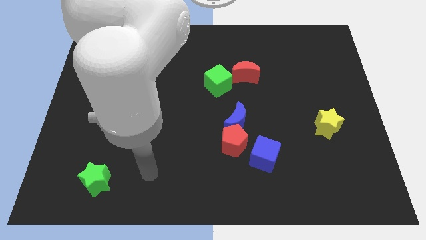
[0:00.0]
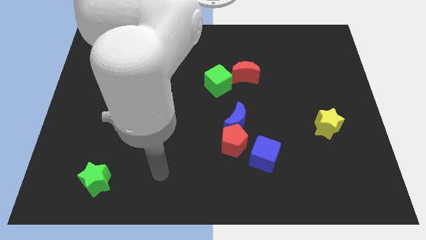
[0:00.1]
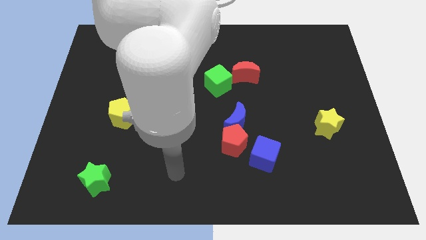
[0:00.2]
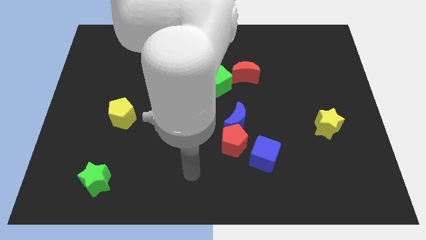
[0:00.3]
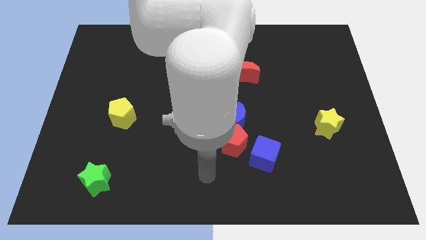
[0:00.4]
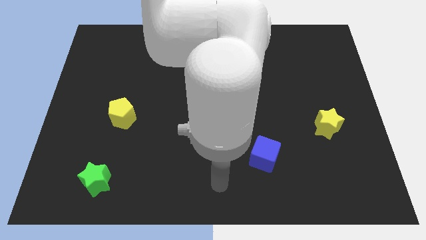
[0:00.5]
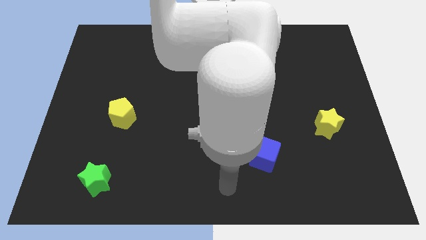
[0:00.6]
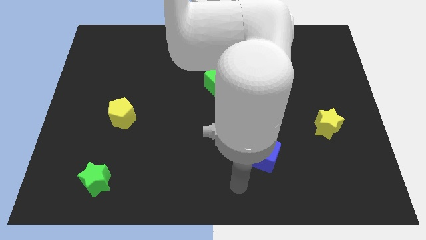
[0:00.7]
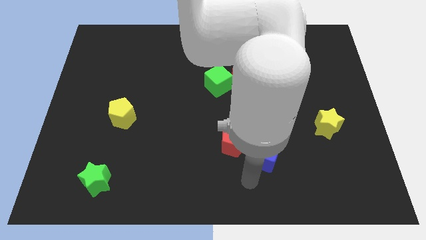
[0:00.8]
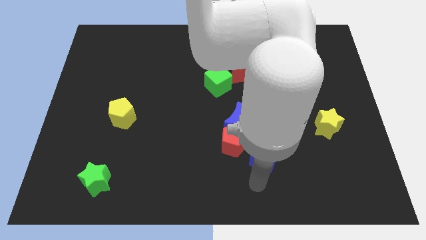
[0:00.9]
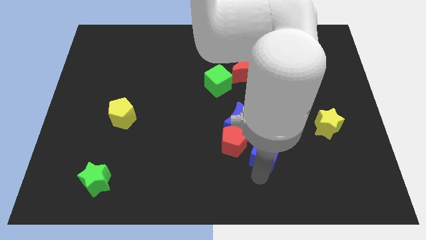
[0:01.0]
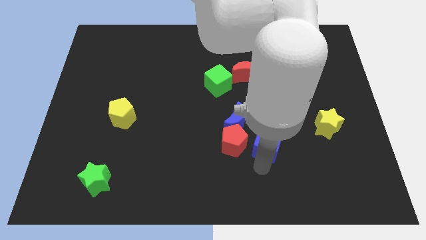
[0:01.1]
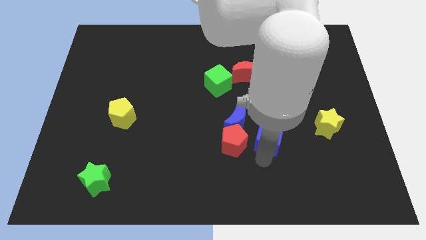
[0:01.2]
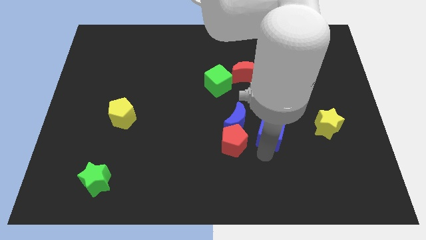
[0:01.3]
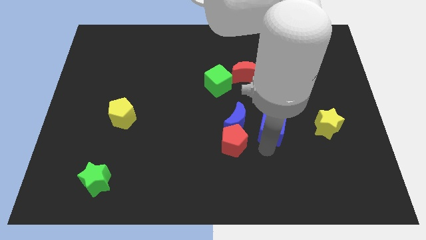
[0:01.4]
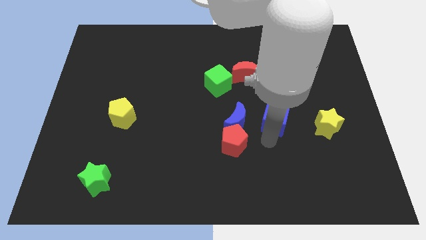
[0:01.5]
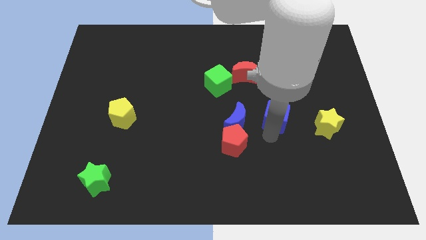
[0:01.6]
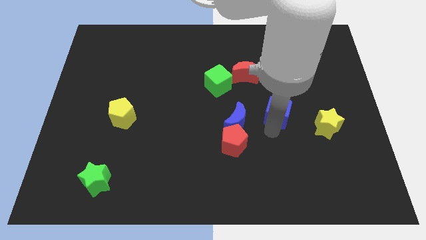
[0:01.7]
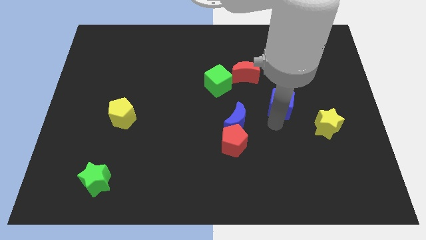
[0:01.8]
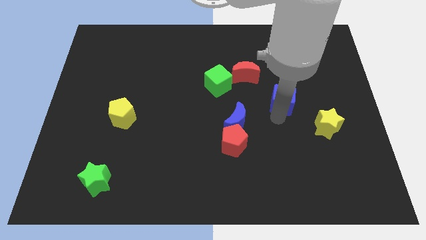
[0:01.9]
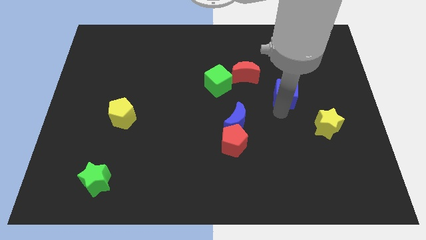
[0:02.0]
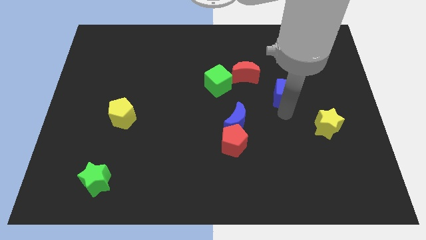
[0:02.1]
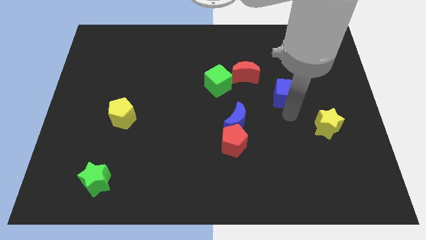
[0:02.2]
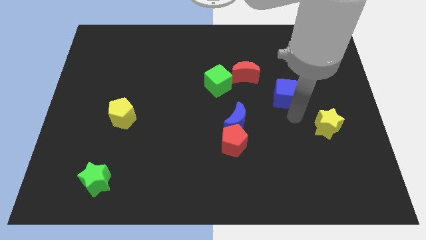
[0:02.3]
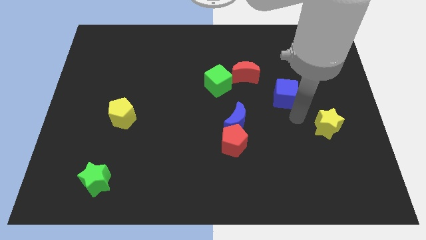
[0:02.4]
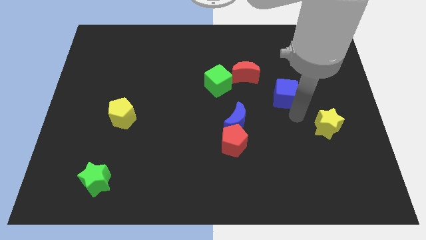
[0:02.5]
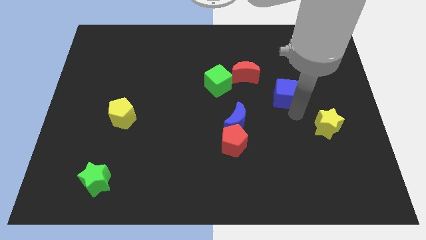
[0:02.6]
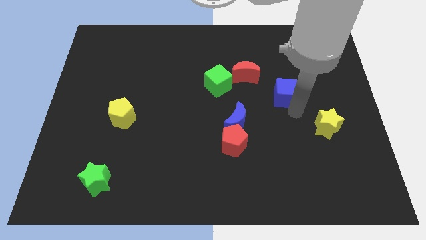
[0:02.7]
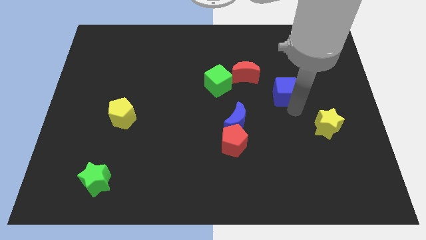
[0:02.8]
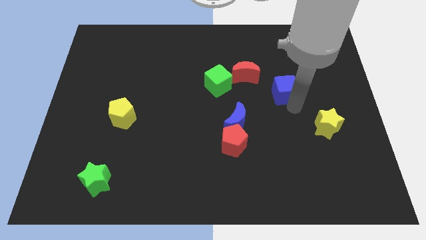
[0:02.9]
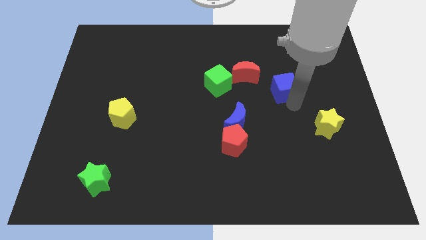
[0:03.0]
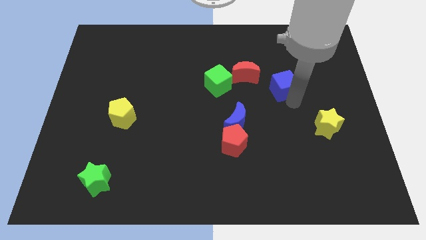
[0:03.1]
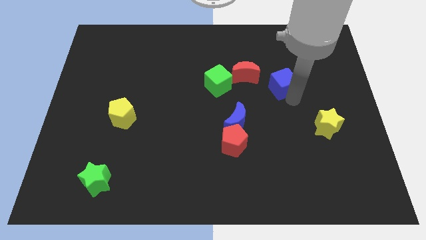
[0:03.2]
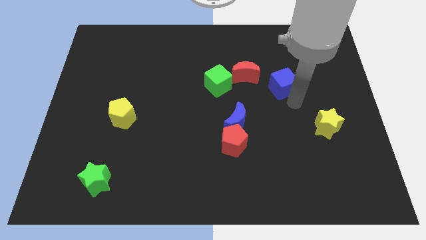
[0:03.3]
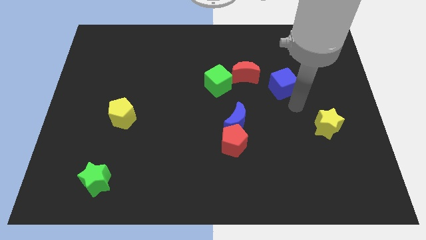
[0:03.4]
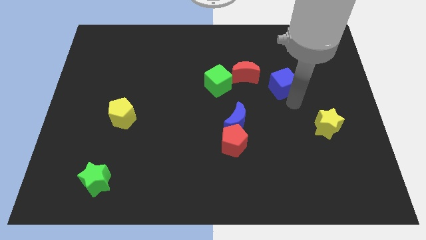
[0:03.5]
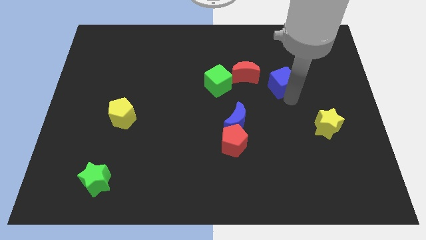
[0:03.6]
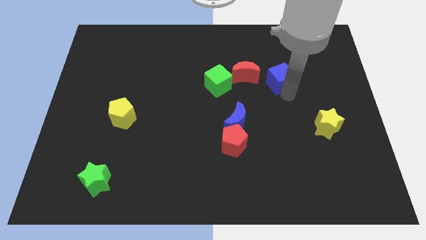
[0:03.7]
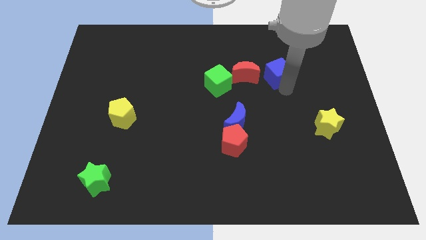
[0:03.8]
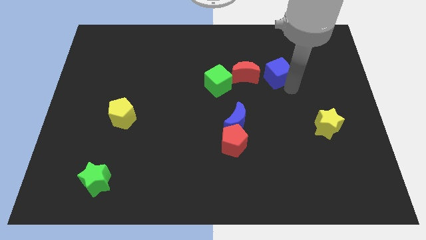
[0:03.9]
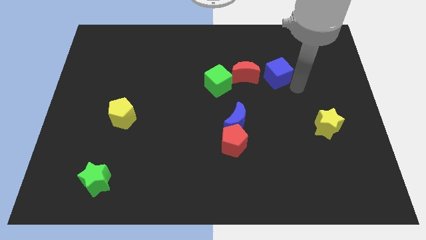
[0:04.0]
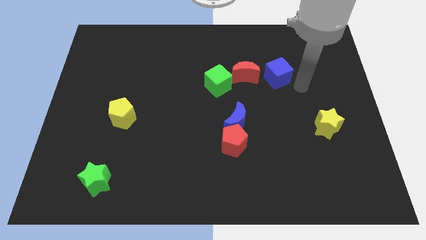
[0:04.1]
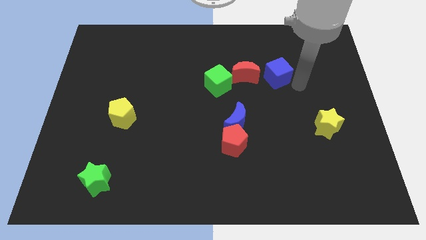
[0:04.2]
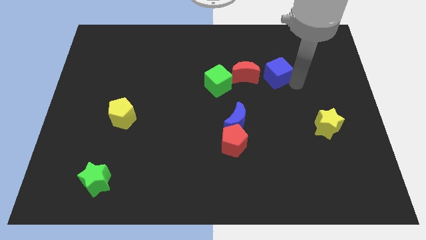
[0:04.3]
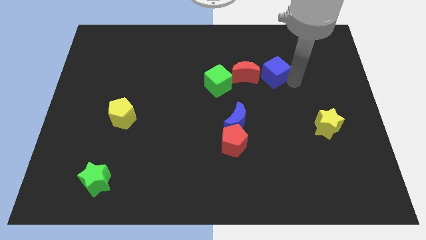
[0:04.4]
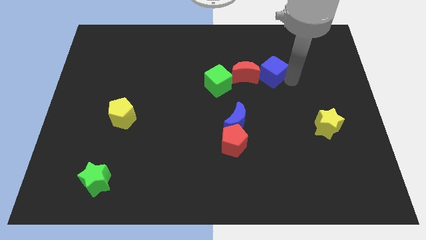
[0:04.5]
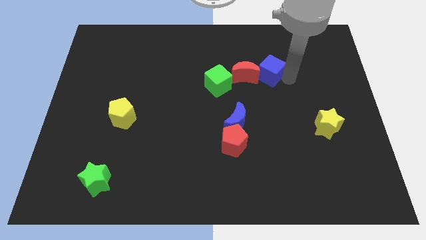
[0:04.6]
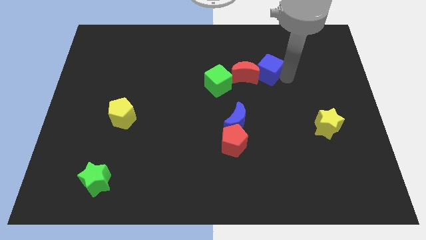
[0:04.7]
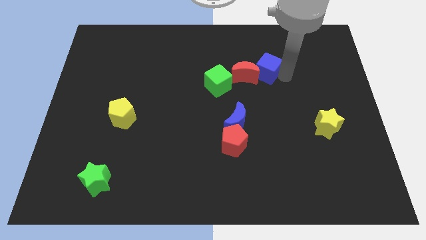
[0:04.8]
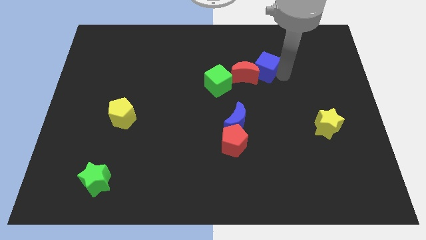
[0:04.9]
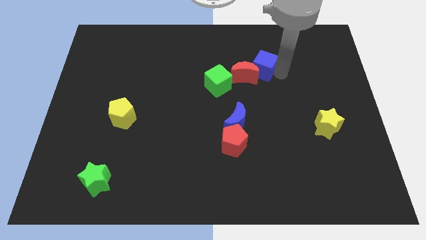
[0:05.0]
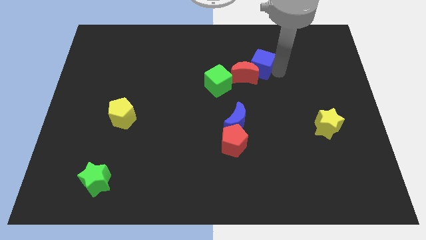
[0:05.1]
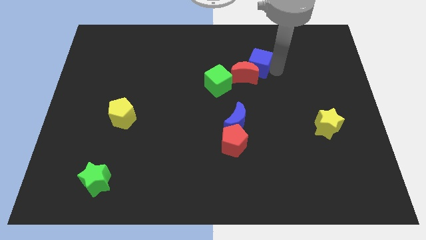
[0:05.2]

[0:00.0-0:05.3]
put the blue cube diagonally up and to the right of the green cube

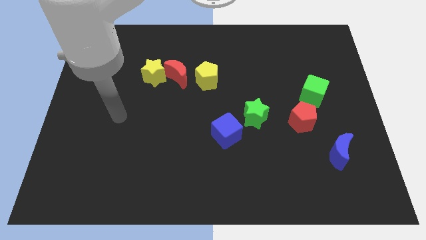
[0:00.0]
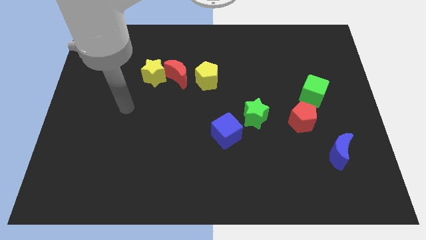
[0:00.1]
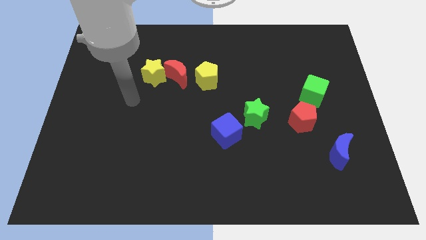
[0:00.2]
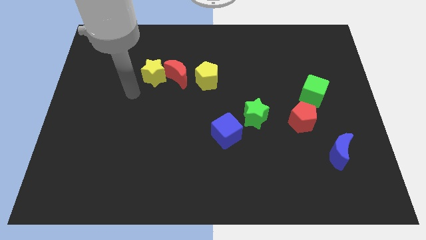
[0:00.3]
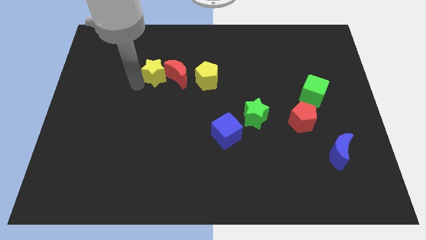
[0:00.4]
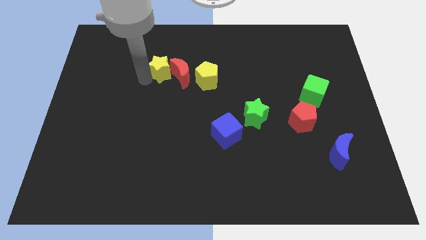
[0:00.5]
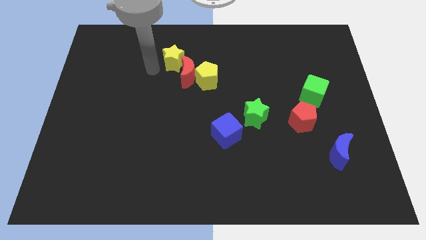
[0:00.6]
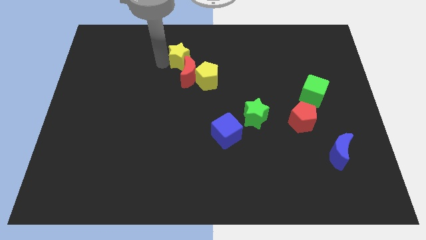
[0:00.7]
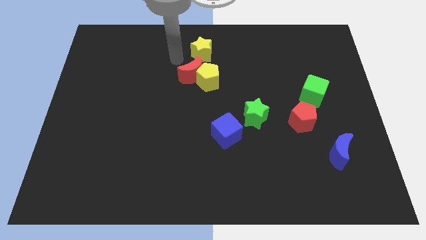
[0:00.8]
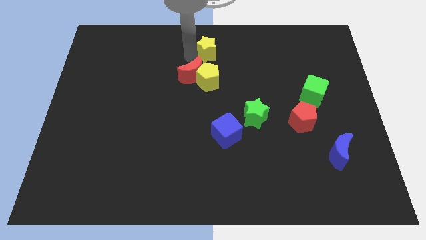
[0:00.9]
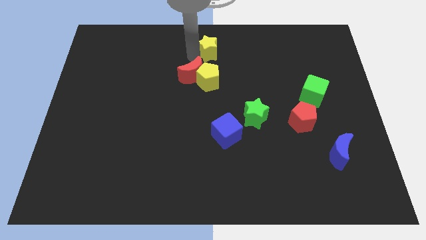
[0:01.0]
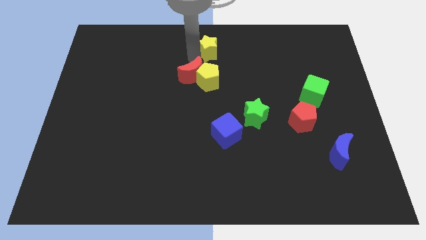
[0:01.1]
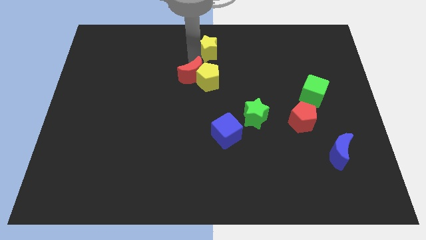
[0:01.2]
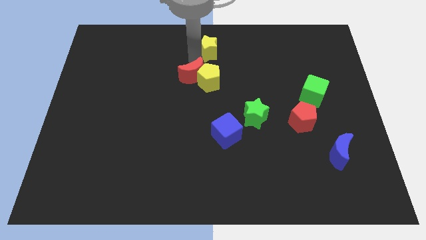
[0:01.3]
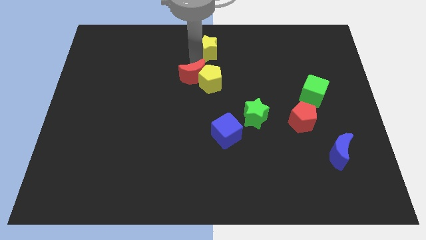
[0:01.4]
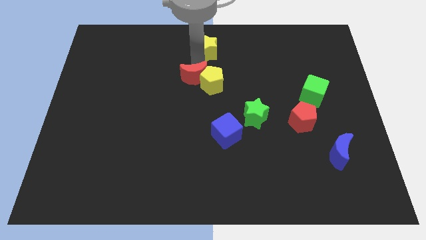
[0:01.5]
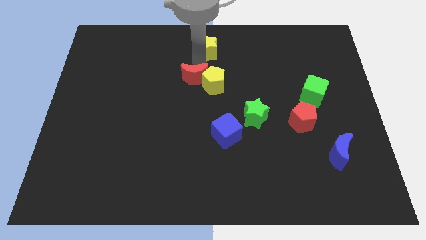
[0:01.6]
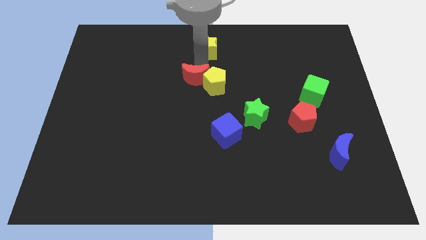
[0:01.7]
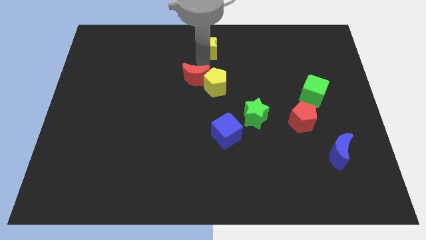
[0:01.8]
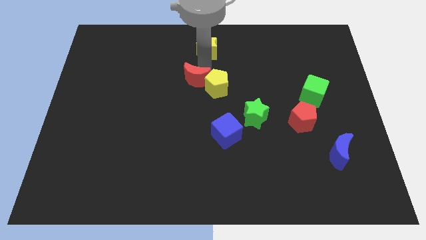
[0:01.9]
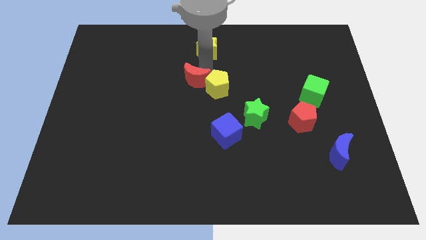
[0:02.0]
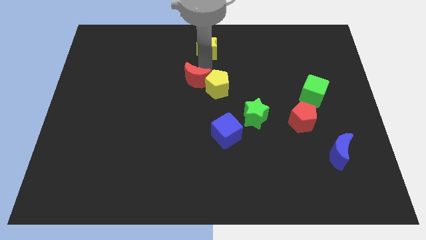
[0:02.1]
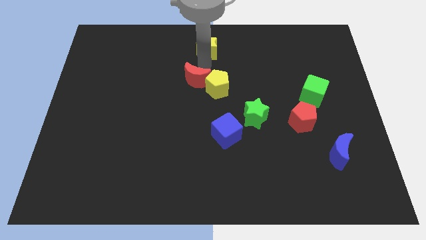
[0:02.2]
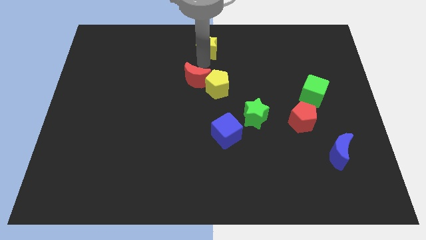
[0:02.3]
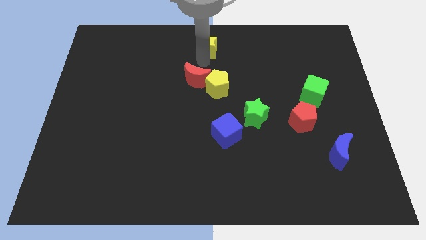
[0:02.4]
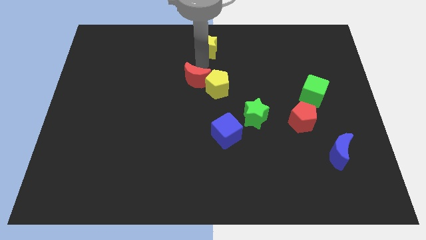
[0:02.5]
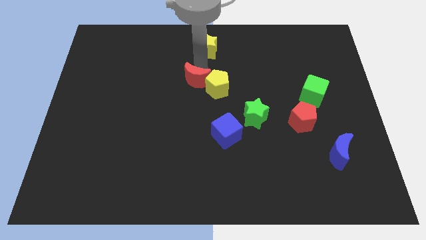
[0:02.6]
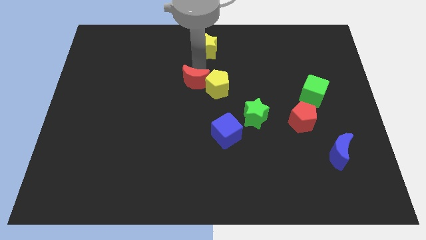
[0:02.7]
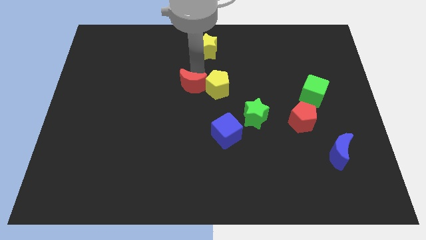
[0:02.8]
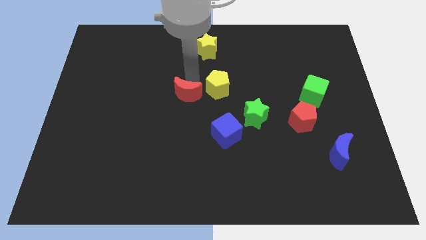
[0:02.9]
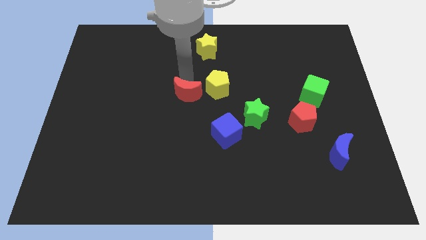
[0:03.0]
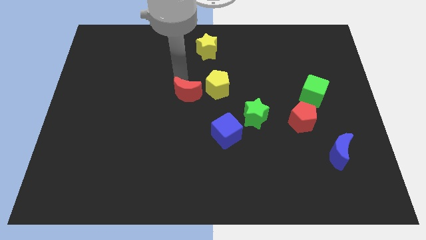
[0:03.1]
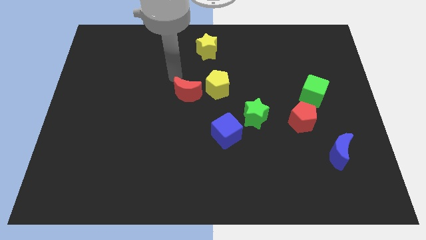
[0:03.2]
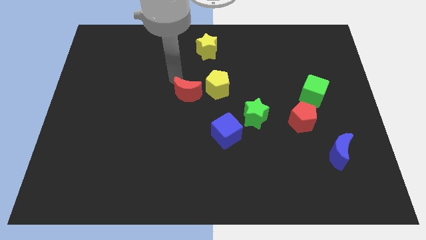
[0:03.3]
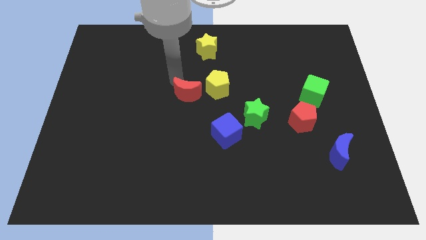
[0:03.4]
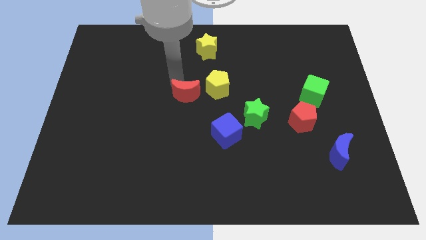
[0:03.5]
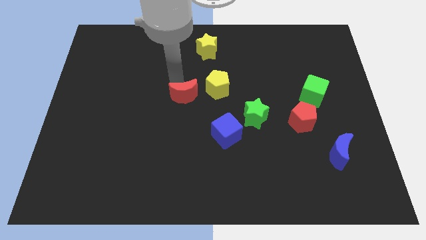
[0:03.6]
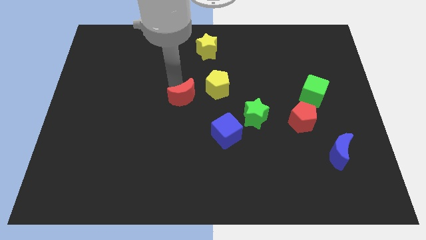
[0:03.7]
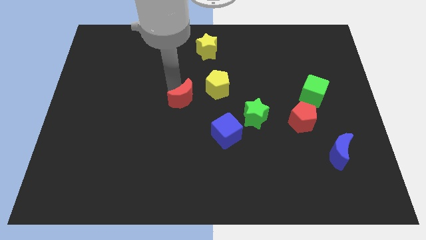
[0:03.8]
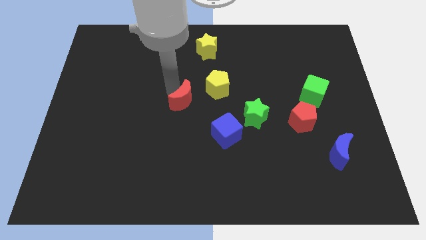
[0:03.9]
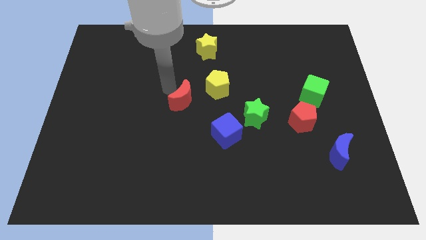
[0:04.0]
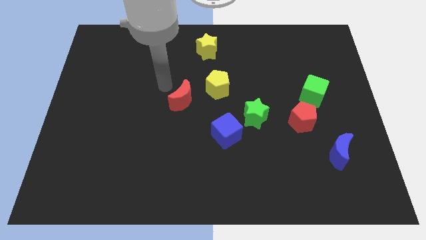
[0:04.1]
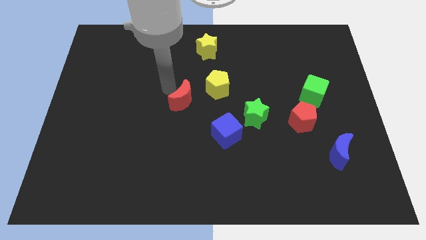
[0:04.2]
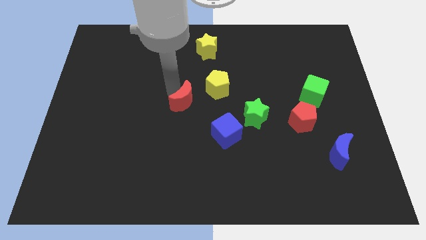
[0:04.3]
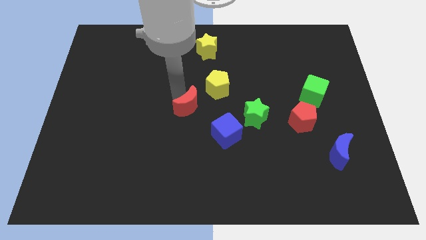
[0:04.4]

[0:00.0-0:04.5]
move the red moon to the top left of the blue cube
